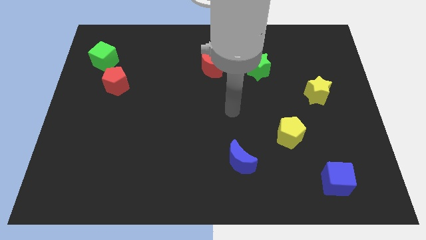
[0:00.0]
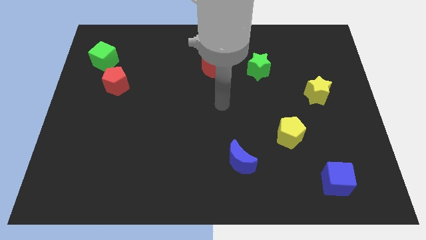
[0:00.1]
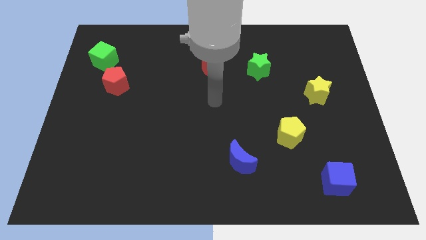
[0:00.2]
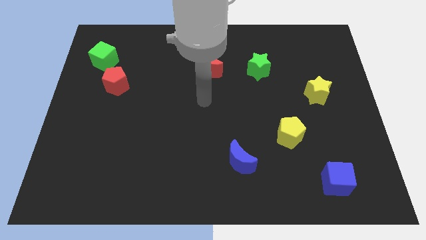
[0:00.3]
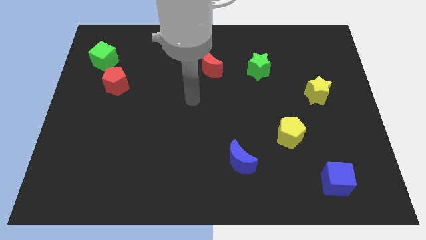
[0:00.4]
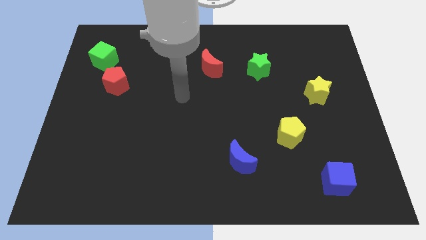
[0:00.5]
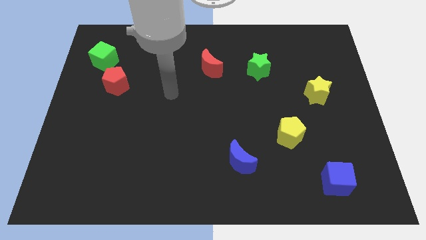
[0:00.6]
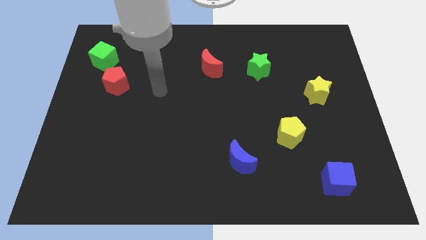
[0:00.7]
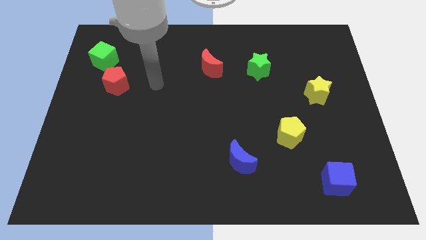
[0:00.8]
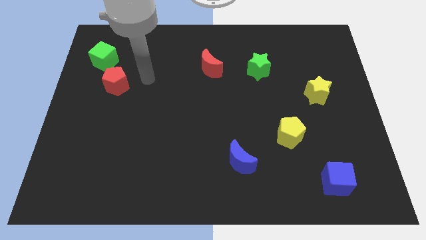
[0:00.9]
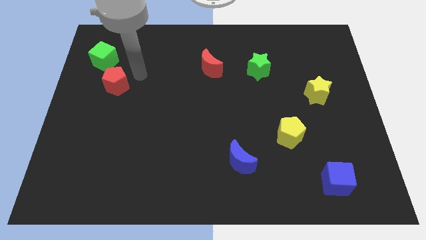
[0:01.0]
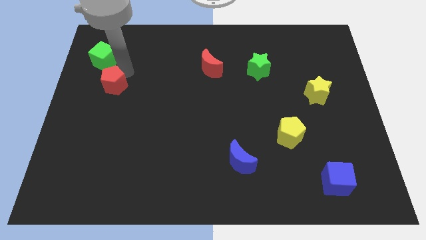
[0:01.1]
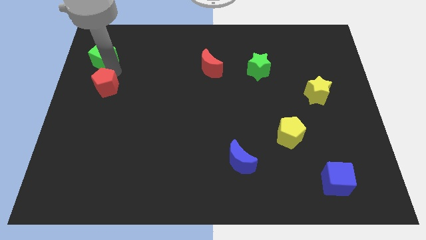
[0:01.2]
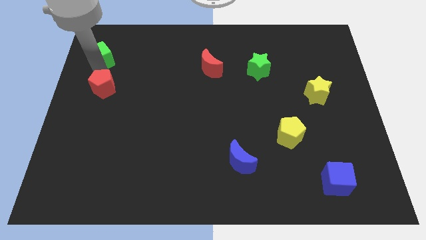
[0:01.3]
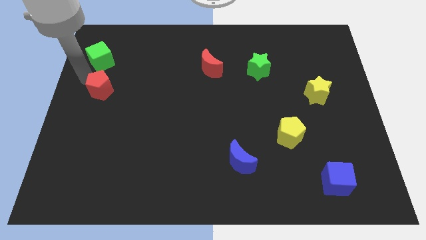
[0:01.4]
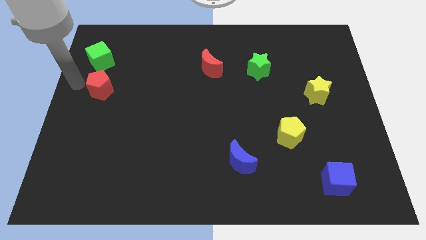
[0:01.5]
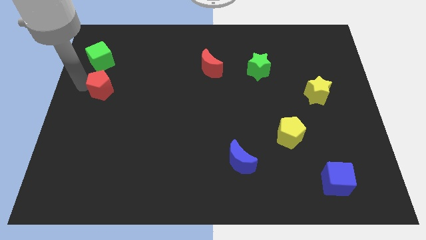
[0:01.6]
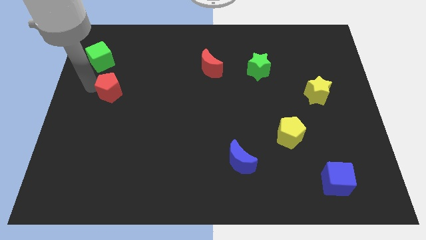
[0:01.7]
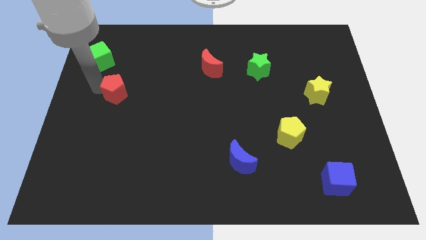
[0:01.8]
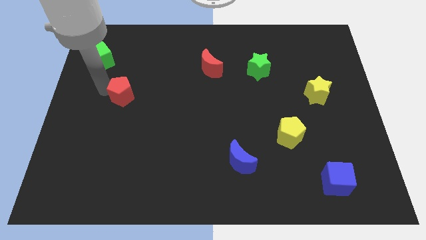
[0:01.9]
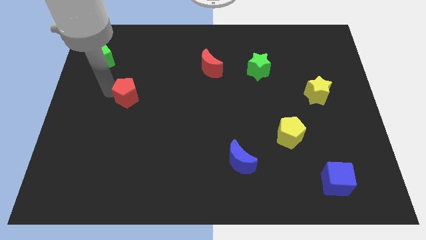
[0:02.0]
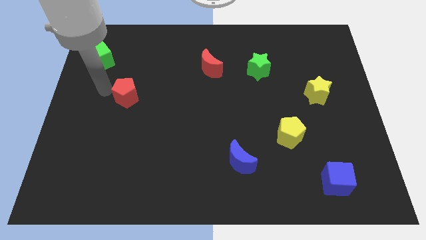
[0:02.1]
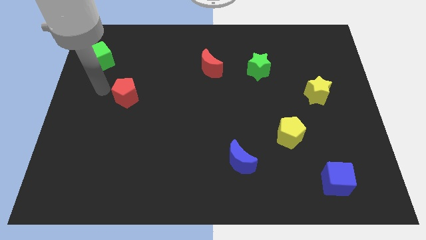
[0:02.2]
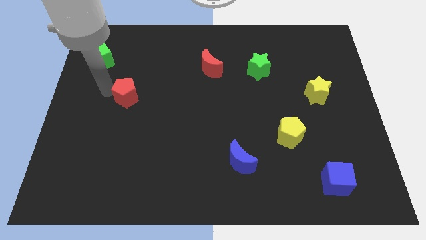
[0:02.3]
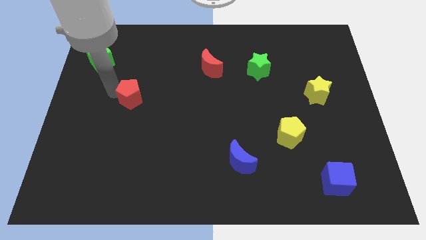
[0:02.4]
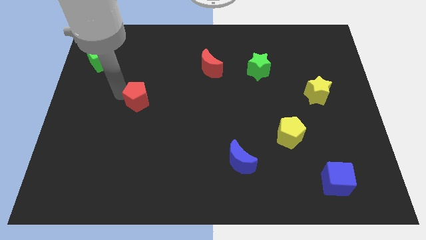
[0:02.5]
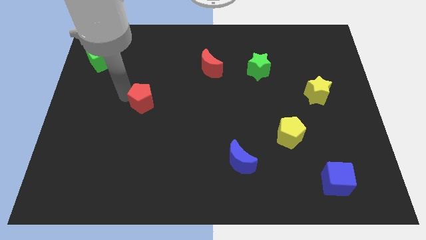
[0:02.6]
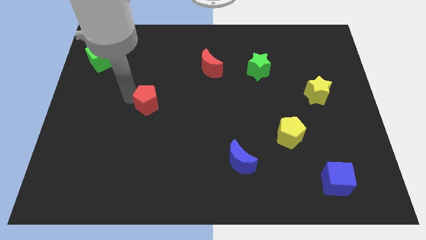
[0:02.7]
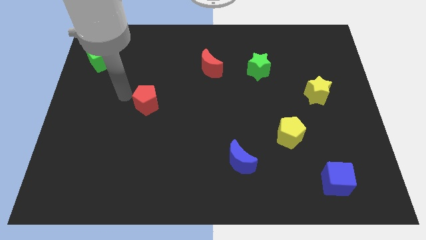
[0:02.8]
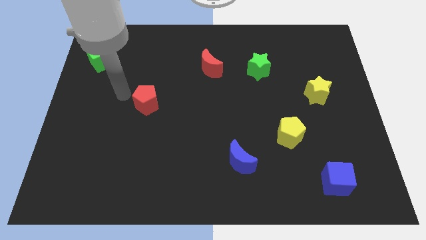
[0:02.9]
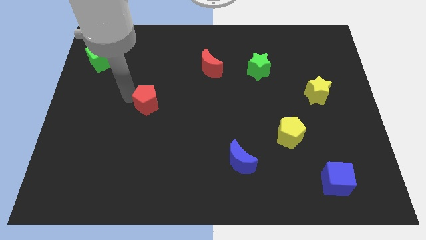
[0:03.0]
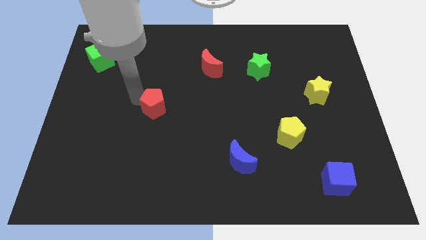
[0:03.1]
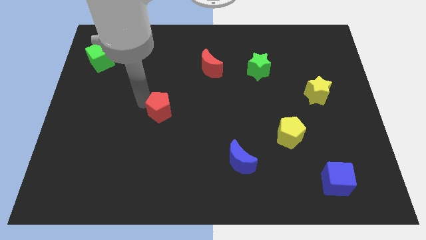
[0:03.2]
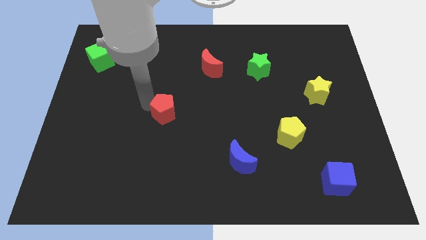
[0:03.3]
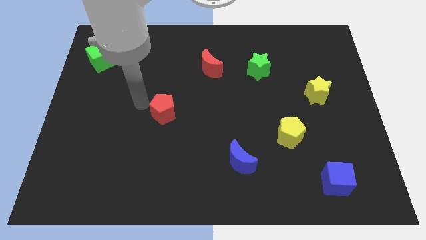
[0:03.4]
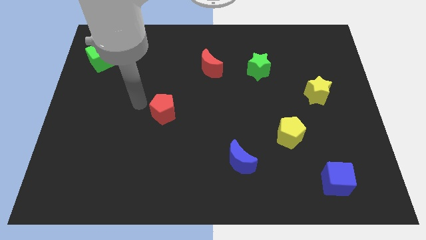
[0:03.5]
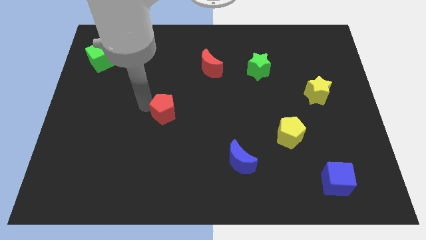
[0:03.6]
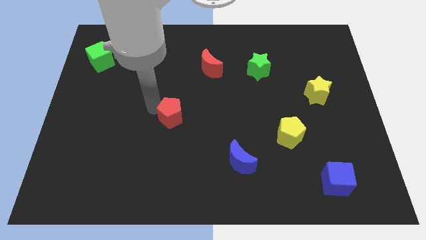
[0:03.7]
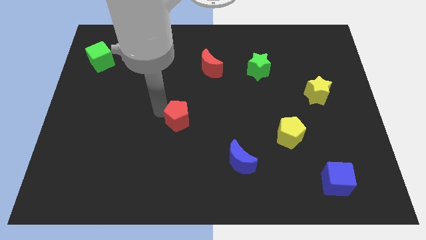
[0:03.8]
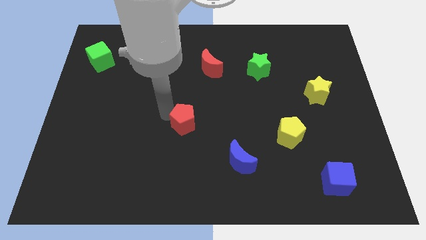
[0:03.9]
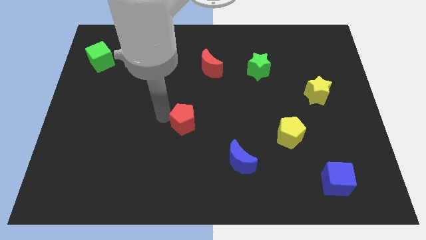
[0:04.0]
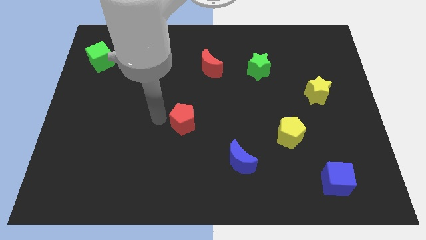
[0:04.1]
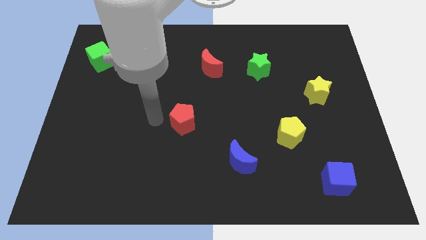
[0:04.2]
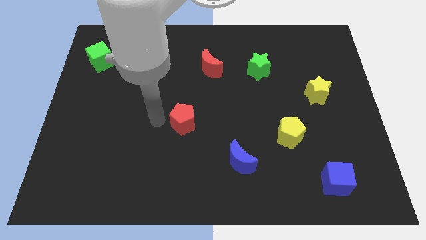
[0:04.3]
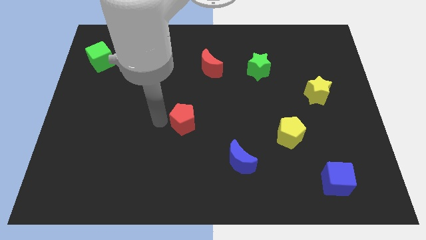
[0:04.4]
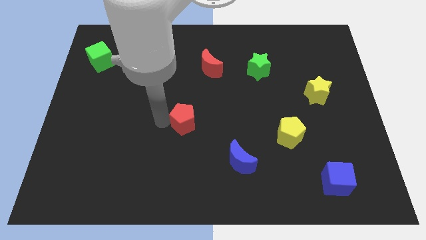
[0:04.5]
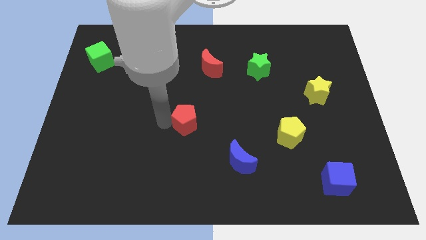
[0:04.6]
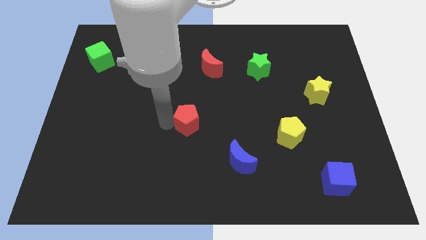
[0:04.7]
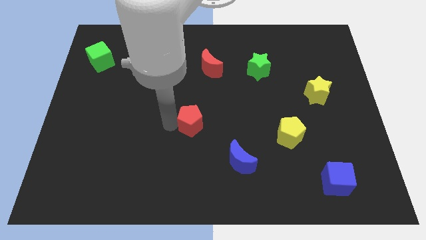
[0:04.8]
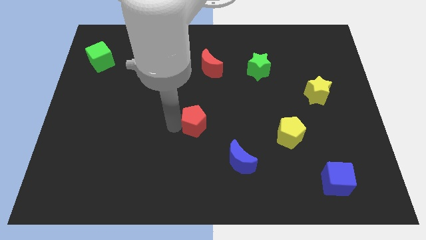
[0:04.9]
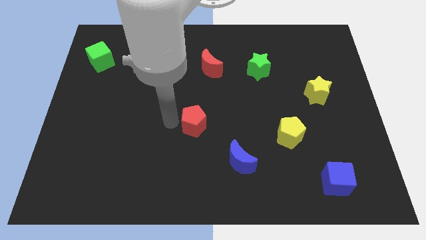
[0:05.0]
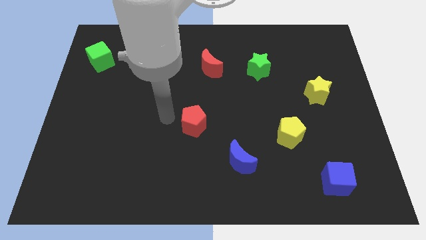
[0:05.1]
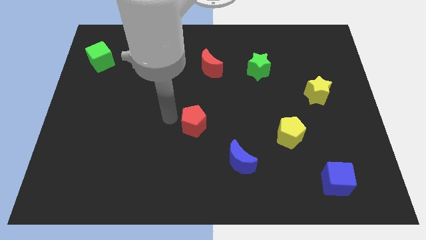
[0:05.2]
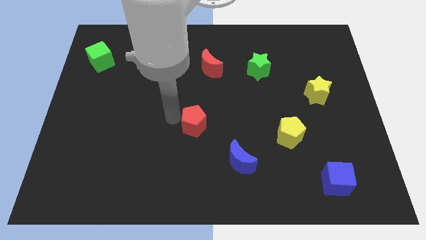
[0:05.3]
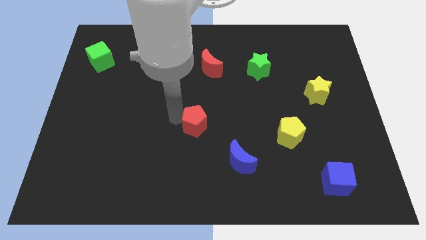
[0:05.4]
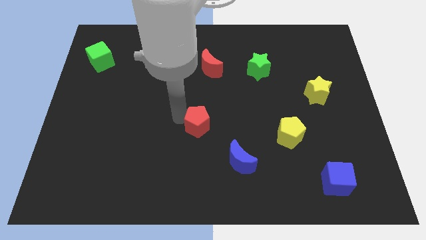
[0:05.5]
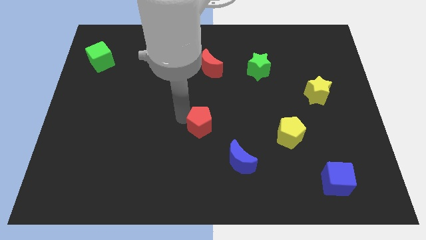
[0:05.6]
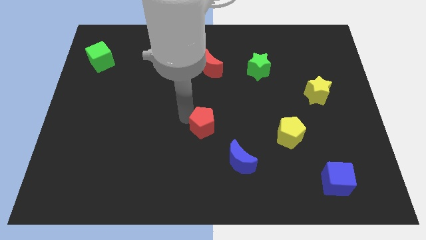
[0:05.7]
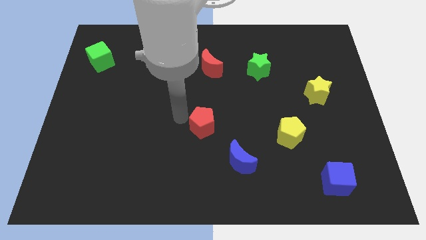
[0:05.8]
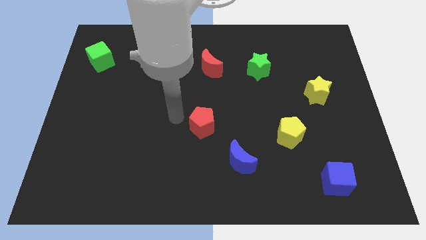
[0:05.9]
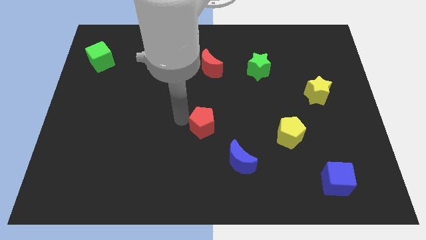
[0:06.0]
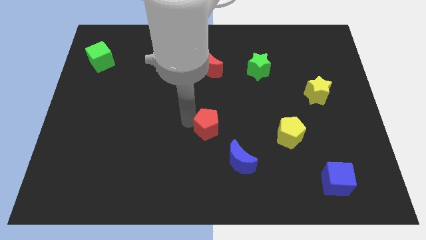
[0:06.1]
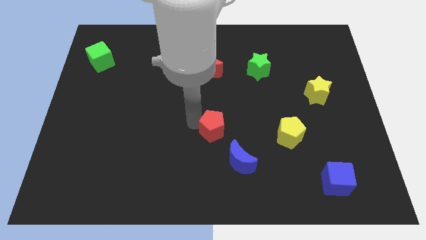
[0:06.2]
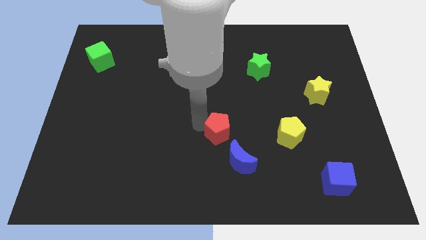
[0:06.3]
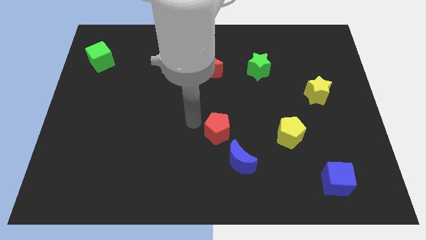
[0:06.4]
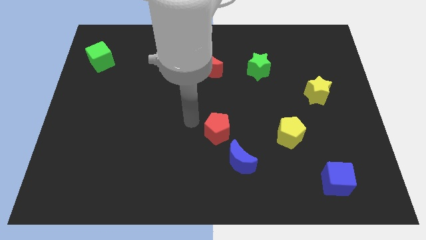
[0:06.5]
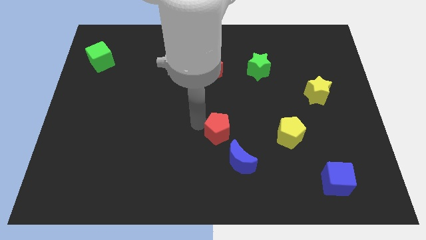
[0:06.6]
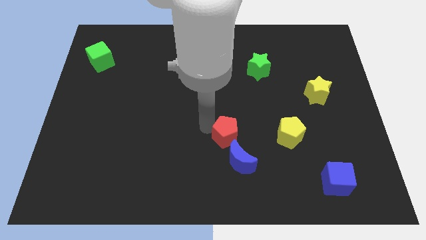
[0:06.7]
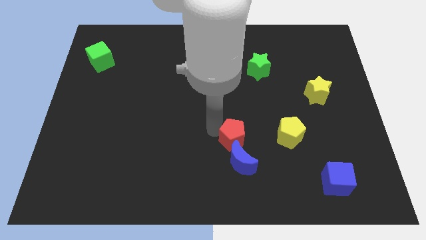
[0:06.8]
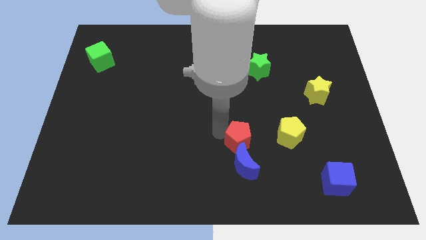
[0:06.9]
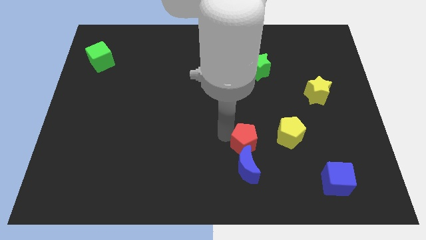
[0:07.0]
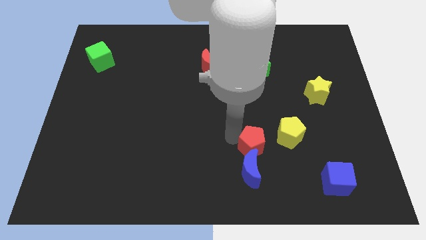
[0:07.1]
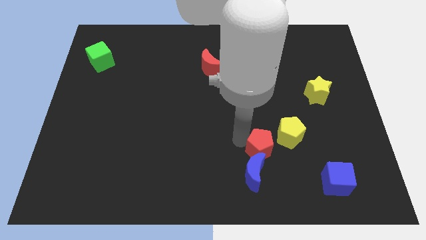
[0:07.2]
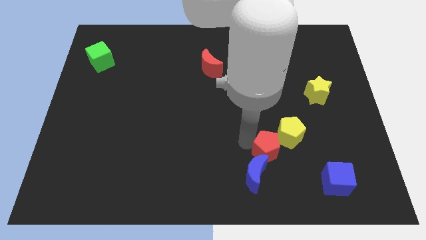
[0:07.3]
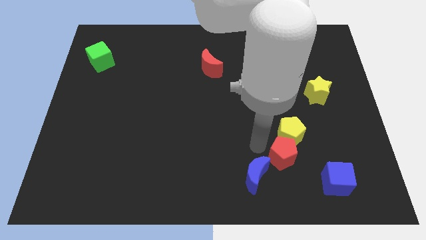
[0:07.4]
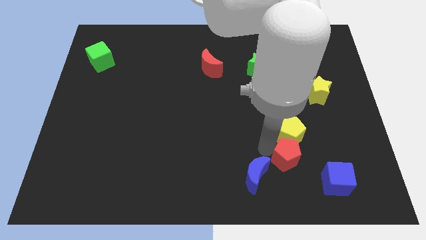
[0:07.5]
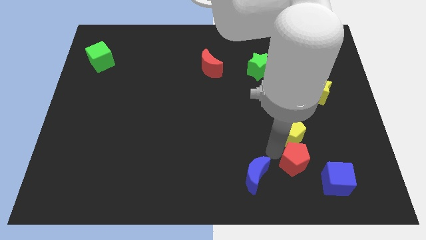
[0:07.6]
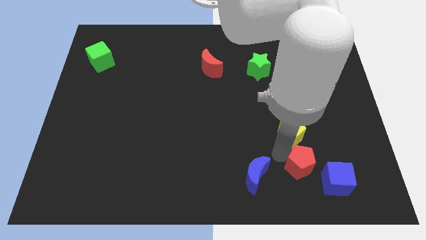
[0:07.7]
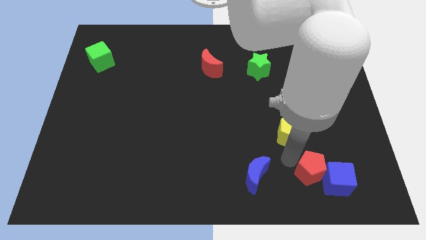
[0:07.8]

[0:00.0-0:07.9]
slide the red pentagon to the blue cube
